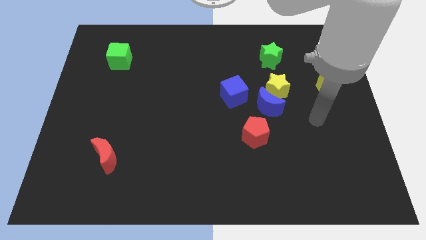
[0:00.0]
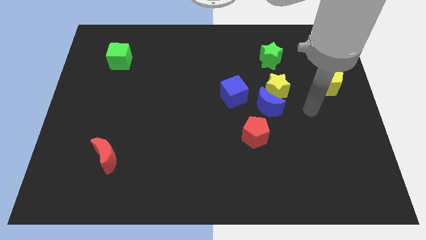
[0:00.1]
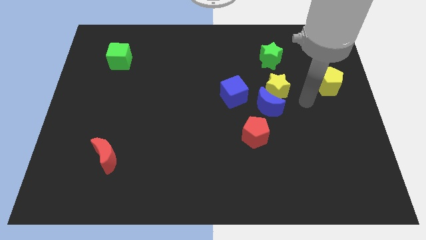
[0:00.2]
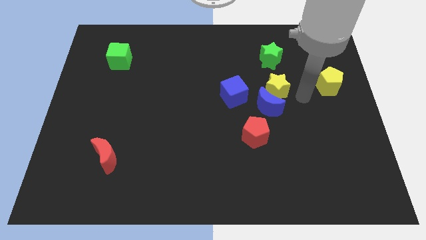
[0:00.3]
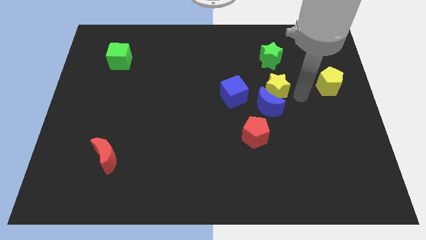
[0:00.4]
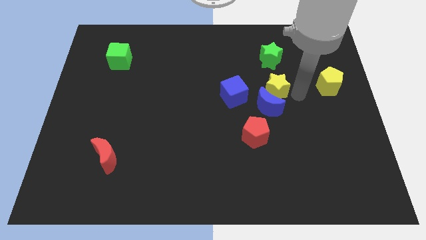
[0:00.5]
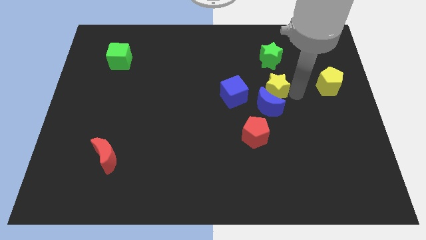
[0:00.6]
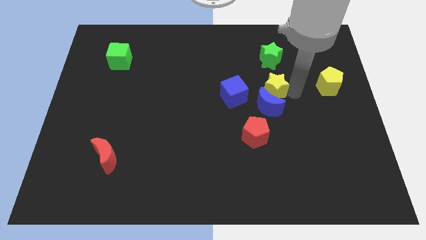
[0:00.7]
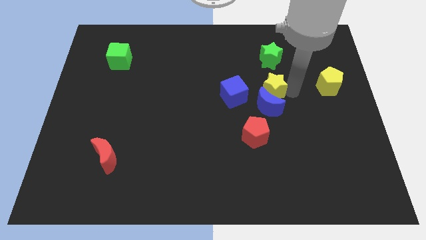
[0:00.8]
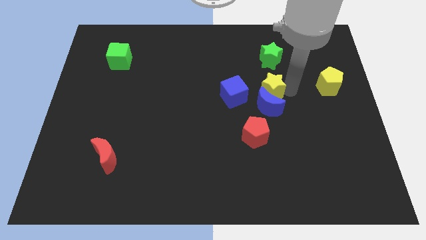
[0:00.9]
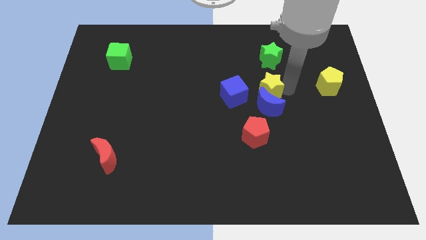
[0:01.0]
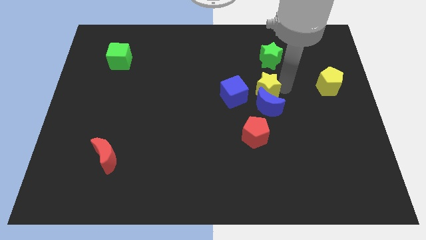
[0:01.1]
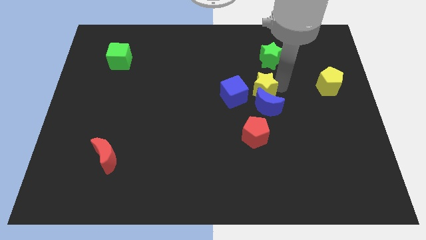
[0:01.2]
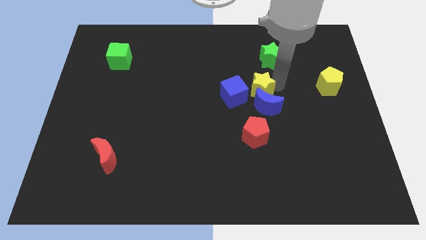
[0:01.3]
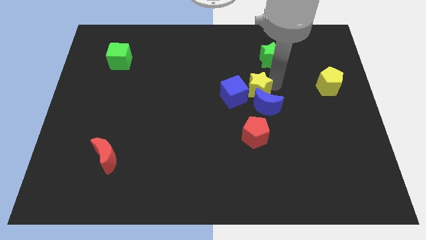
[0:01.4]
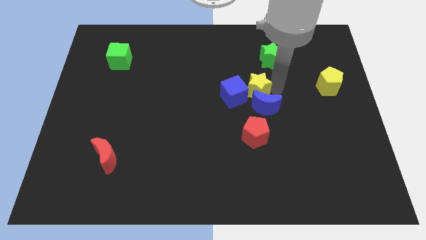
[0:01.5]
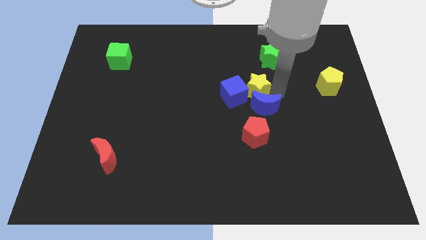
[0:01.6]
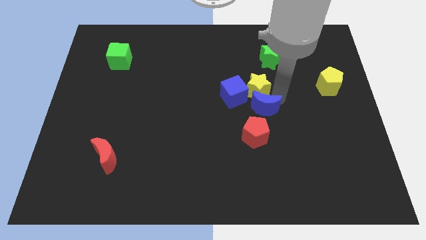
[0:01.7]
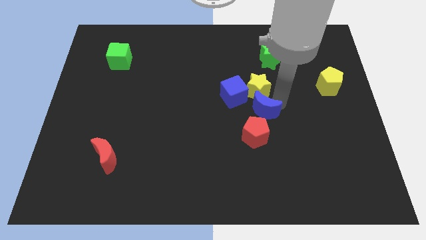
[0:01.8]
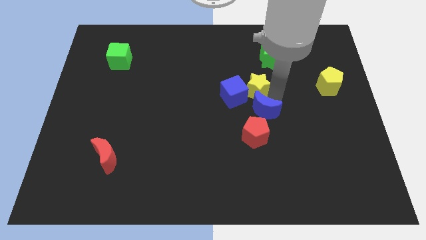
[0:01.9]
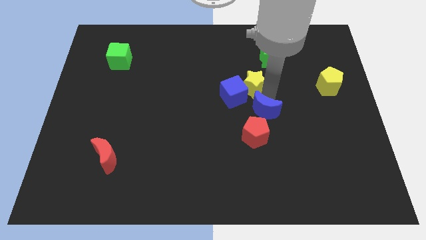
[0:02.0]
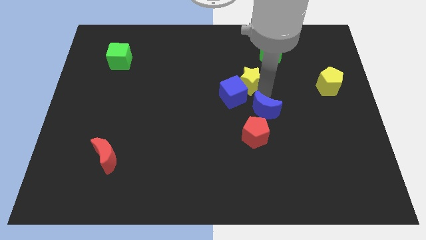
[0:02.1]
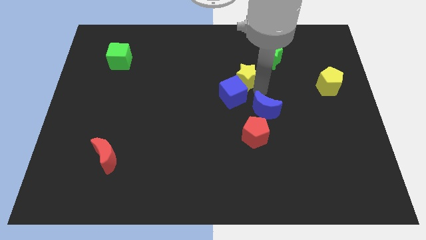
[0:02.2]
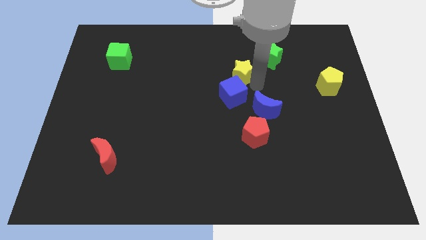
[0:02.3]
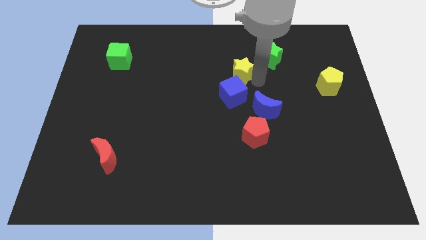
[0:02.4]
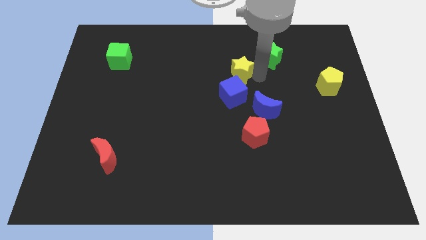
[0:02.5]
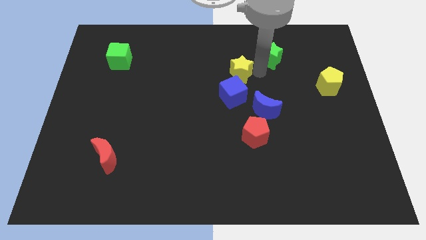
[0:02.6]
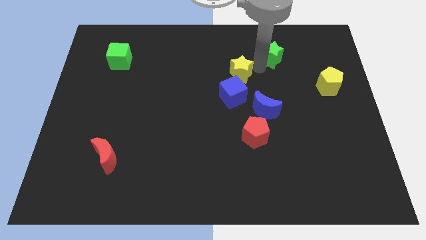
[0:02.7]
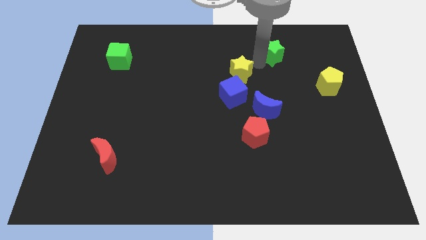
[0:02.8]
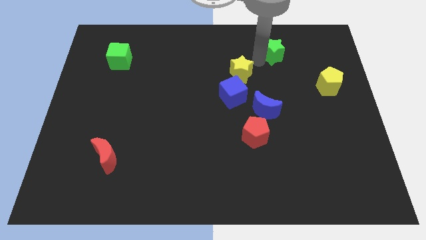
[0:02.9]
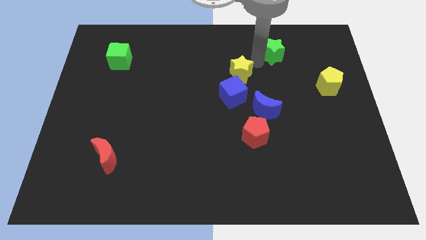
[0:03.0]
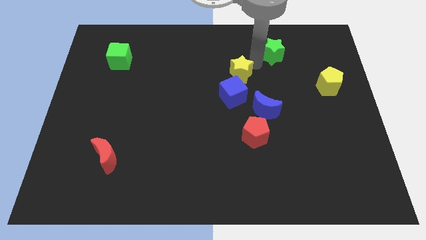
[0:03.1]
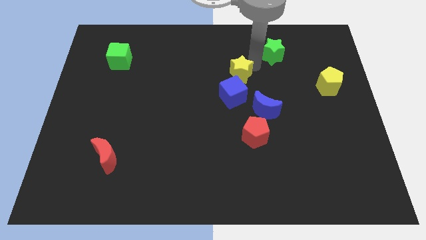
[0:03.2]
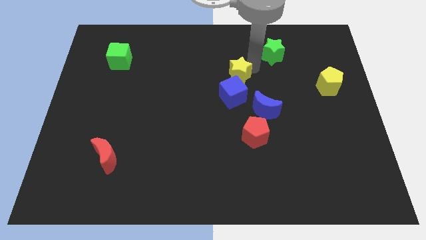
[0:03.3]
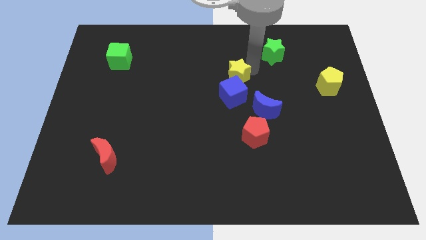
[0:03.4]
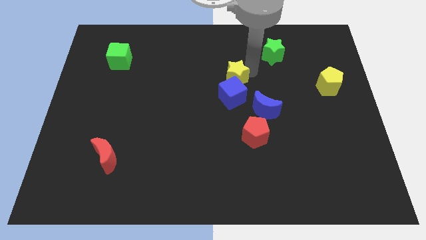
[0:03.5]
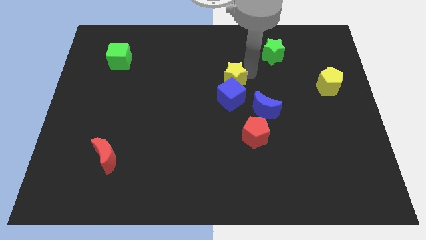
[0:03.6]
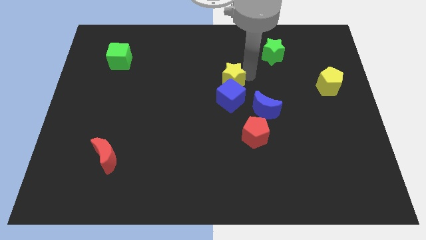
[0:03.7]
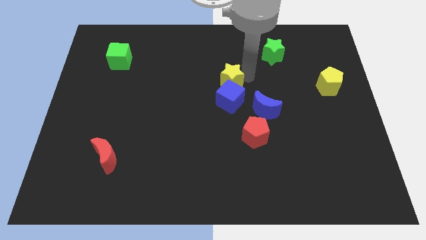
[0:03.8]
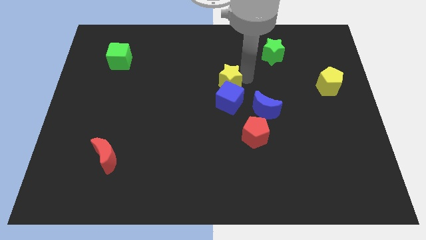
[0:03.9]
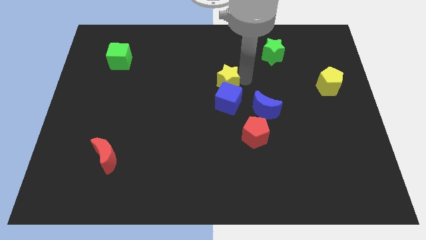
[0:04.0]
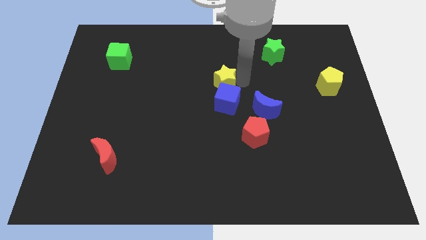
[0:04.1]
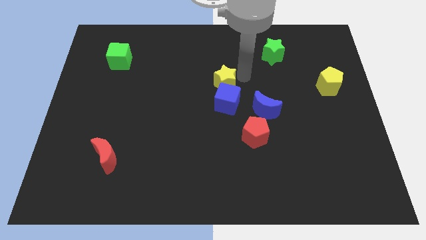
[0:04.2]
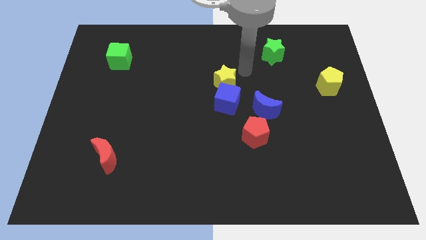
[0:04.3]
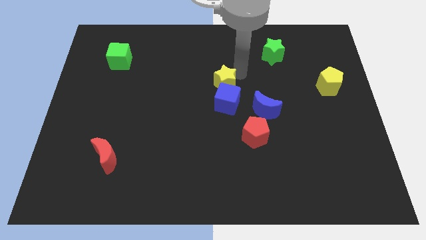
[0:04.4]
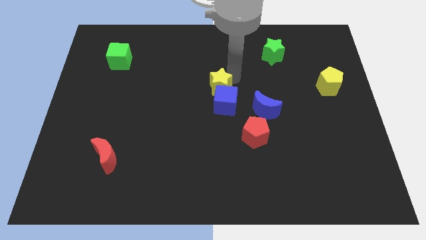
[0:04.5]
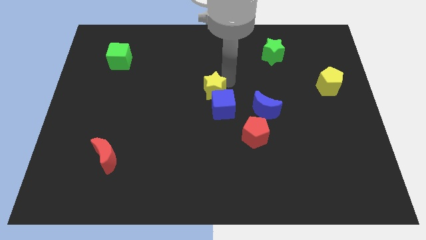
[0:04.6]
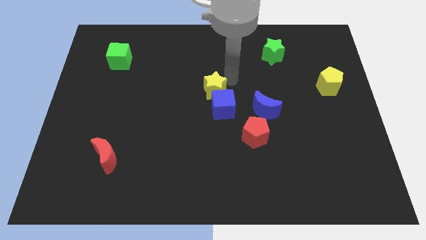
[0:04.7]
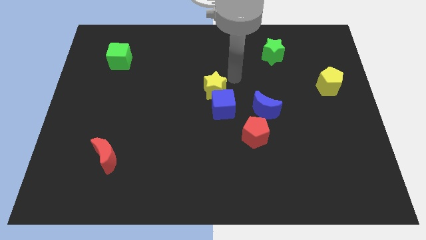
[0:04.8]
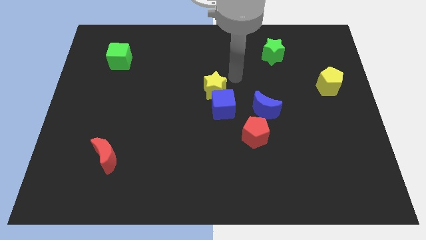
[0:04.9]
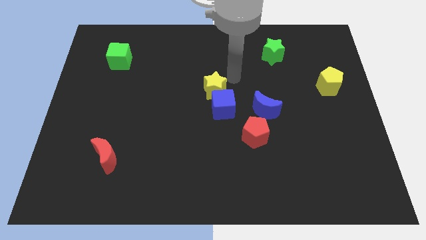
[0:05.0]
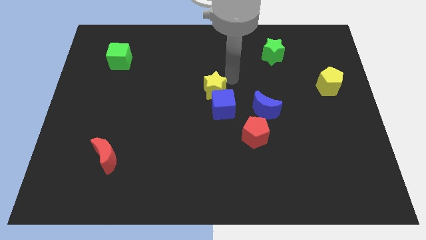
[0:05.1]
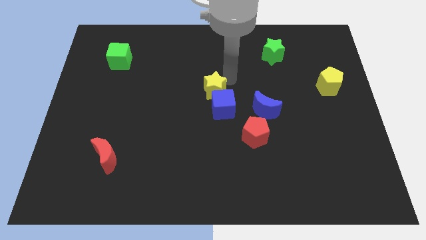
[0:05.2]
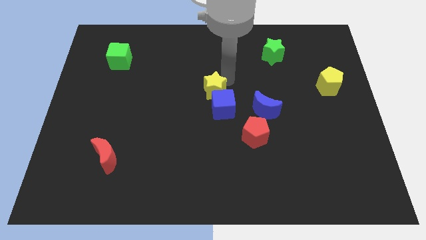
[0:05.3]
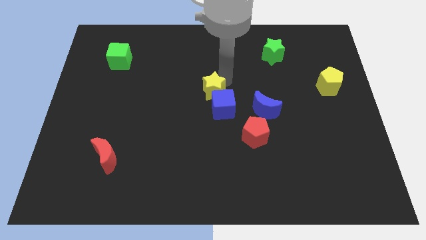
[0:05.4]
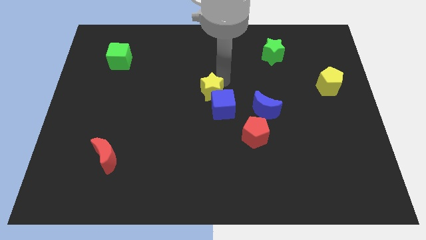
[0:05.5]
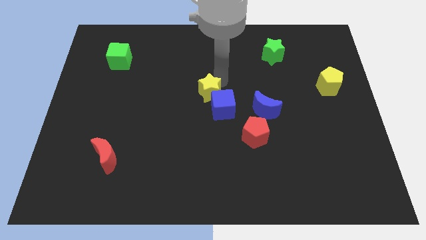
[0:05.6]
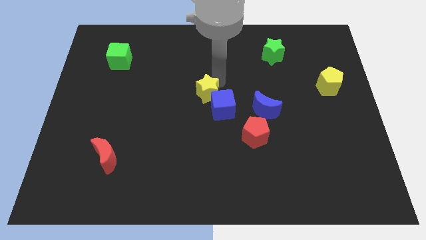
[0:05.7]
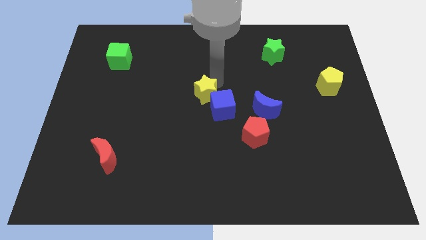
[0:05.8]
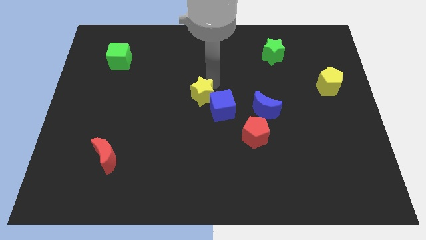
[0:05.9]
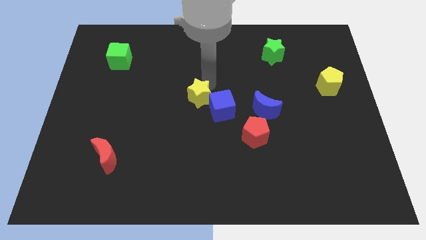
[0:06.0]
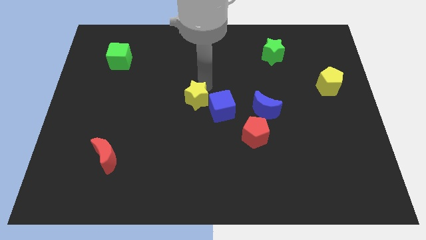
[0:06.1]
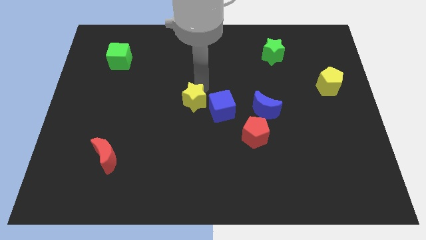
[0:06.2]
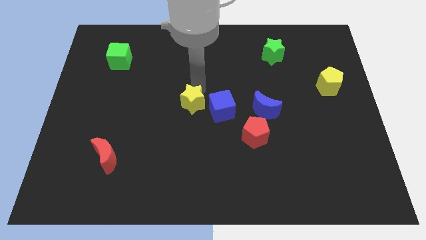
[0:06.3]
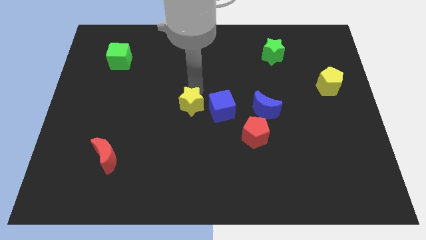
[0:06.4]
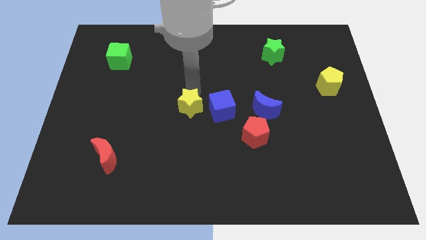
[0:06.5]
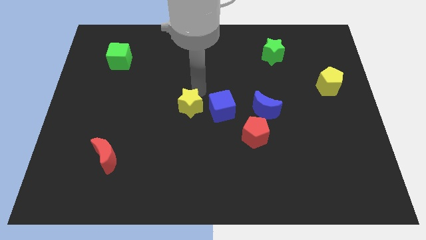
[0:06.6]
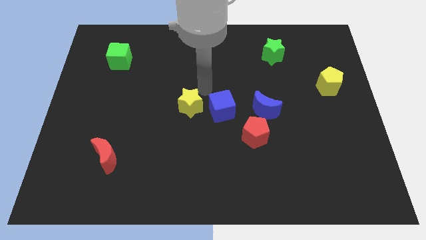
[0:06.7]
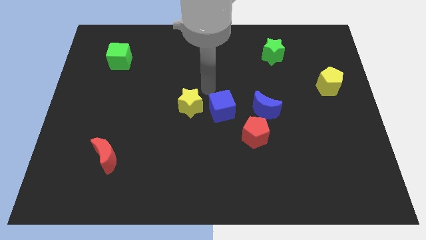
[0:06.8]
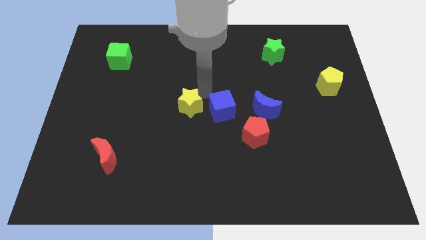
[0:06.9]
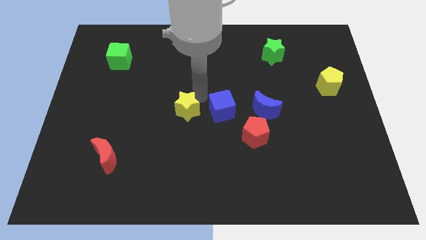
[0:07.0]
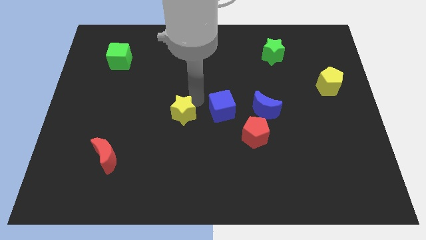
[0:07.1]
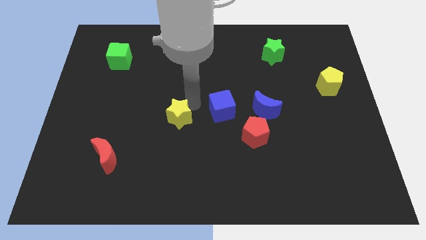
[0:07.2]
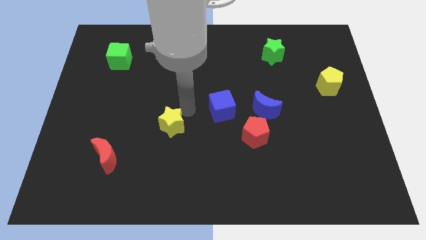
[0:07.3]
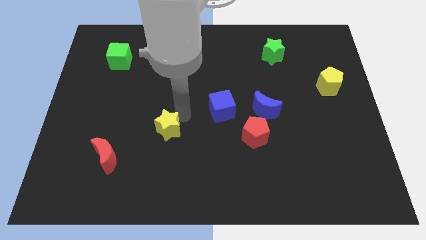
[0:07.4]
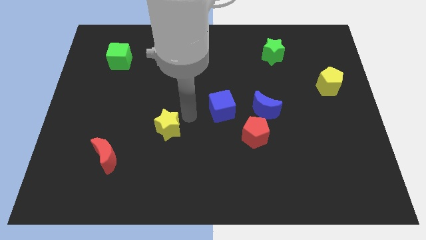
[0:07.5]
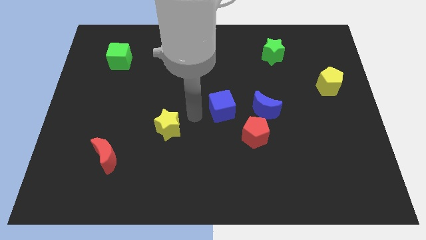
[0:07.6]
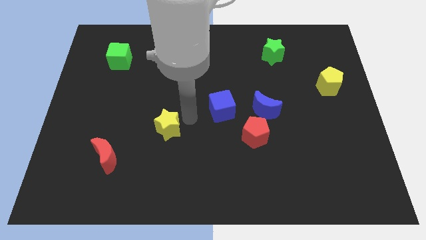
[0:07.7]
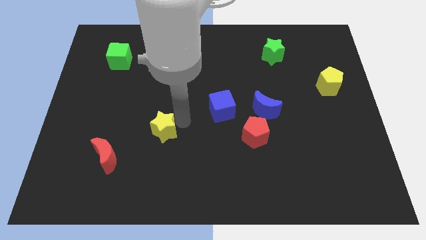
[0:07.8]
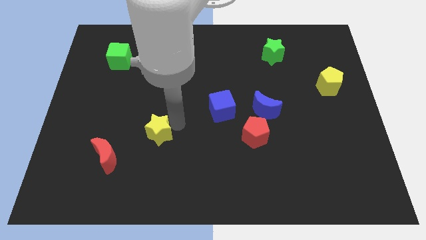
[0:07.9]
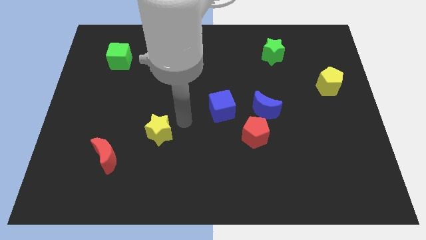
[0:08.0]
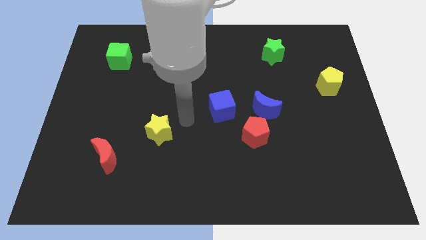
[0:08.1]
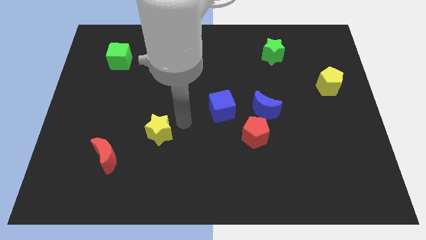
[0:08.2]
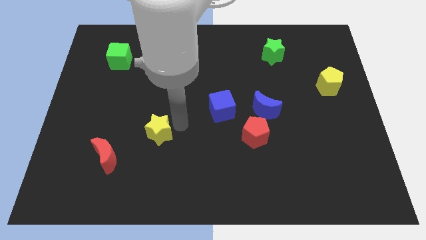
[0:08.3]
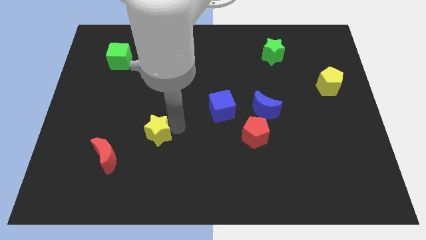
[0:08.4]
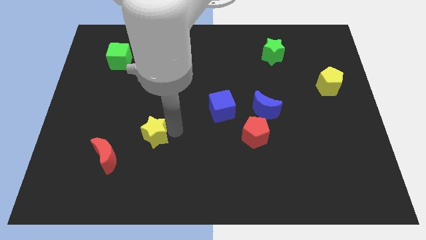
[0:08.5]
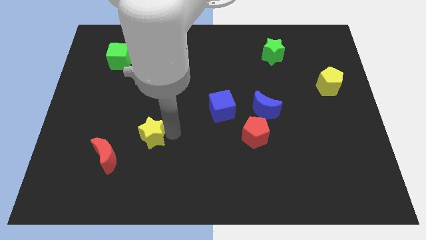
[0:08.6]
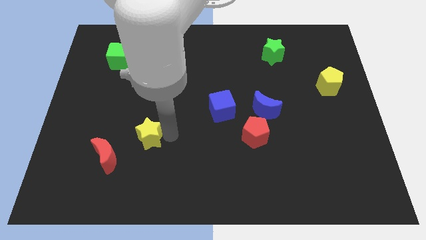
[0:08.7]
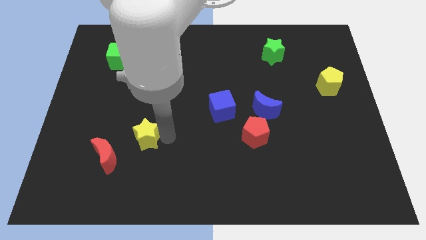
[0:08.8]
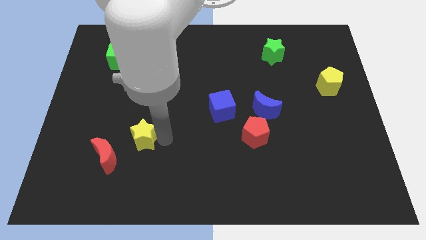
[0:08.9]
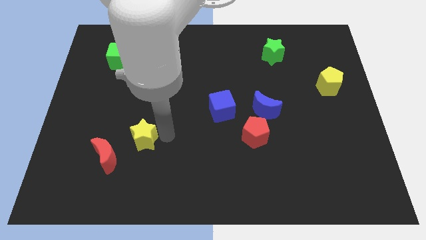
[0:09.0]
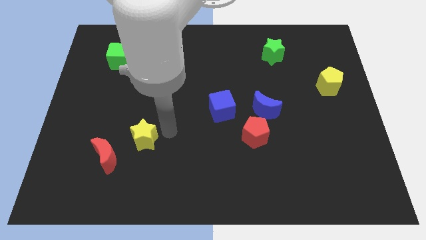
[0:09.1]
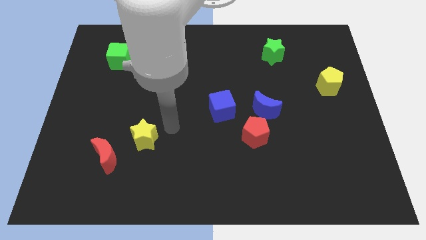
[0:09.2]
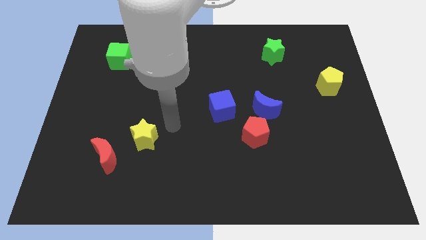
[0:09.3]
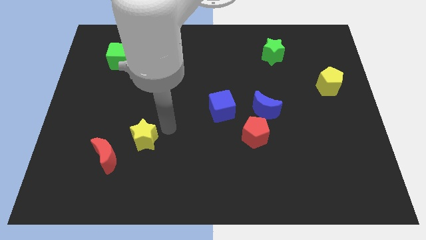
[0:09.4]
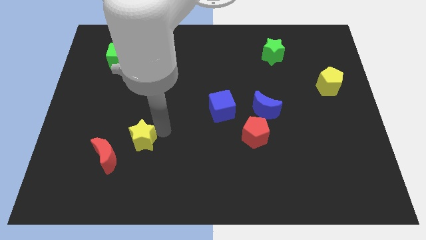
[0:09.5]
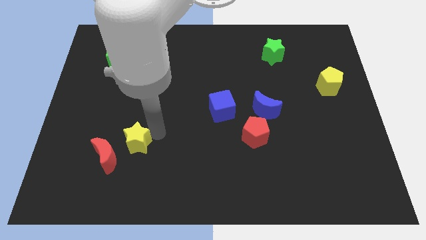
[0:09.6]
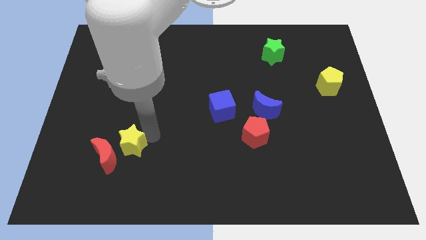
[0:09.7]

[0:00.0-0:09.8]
push the yellow star to the red moon
